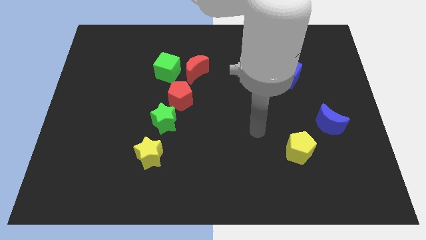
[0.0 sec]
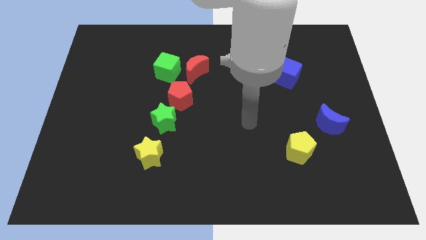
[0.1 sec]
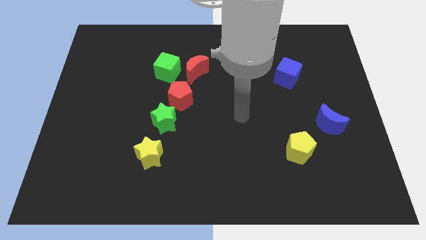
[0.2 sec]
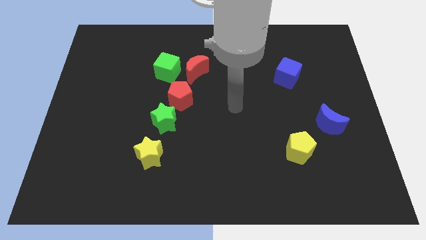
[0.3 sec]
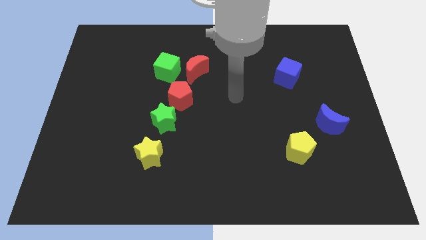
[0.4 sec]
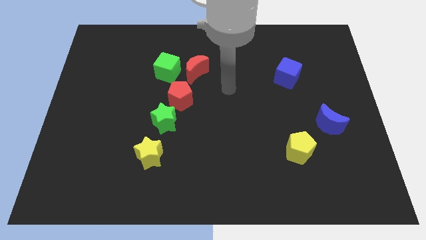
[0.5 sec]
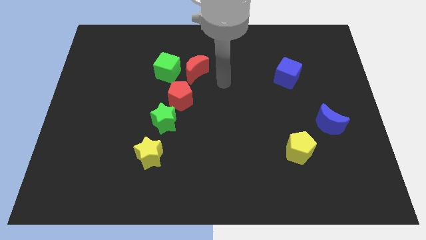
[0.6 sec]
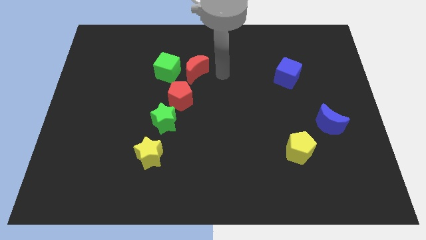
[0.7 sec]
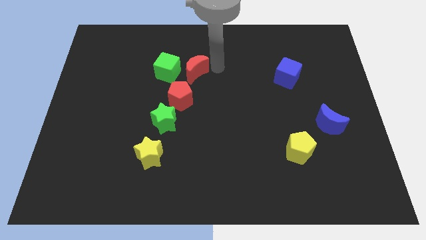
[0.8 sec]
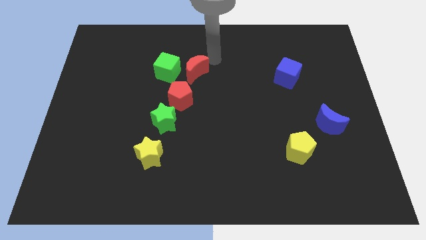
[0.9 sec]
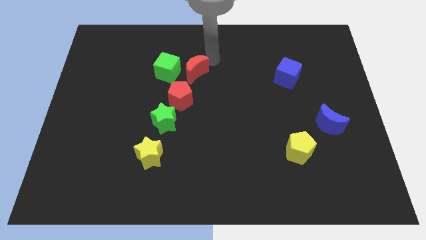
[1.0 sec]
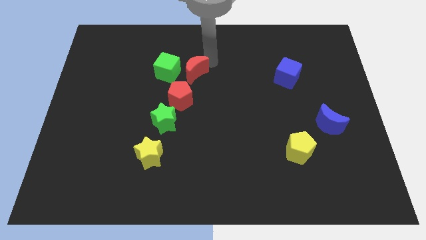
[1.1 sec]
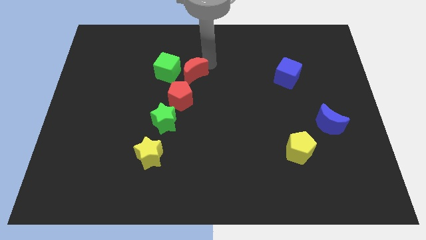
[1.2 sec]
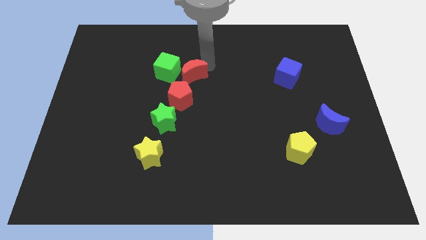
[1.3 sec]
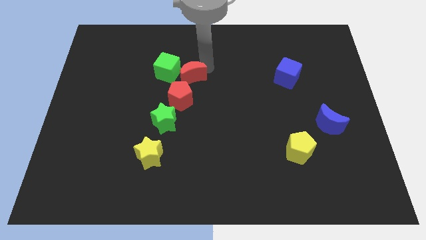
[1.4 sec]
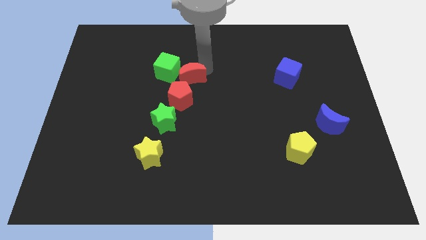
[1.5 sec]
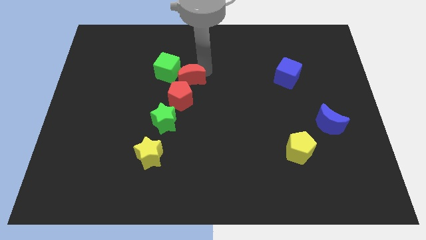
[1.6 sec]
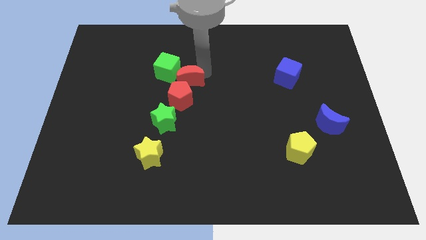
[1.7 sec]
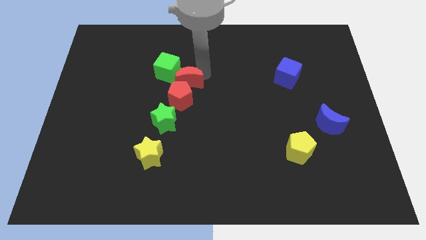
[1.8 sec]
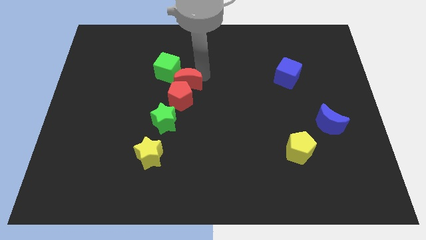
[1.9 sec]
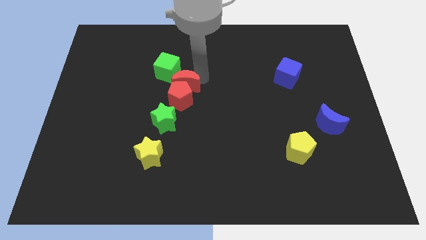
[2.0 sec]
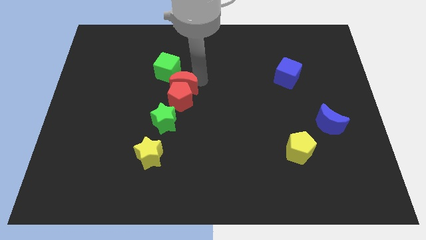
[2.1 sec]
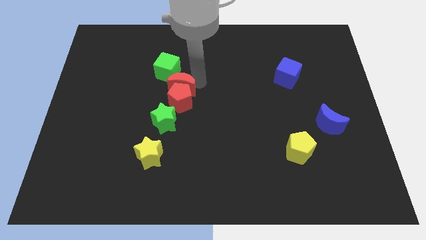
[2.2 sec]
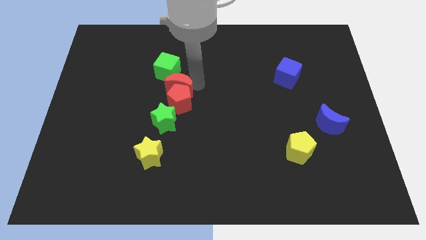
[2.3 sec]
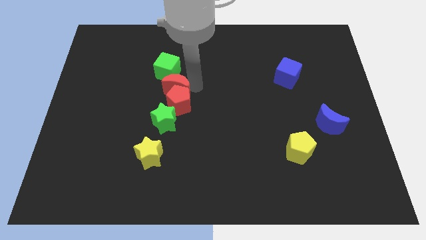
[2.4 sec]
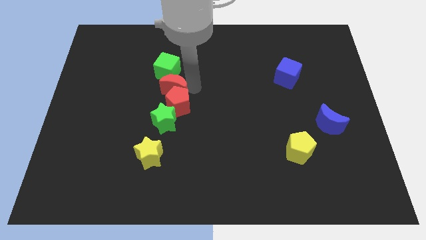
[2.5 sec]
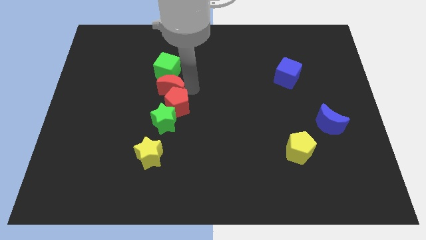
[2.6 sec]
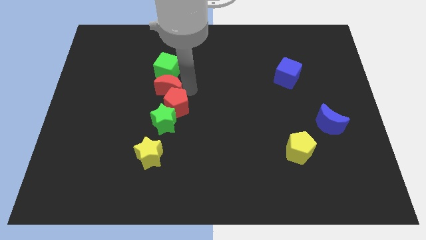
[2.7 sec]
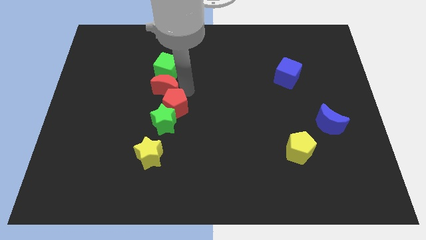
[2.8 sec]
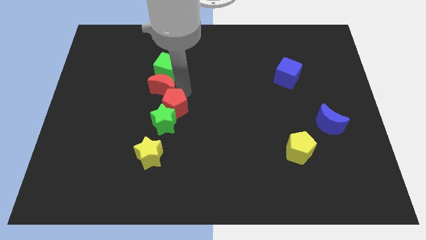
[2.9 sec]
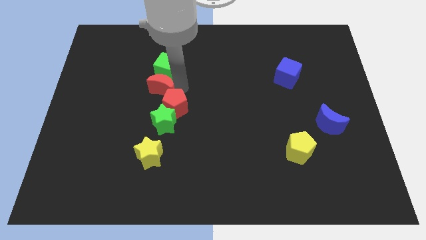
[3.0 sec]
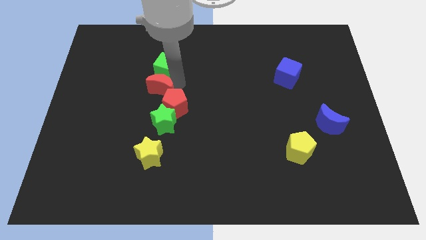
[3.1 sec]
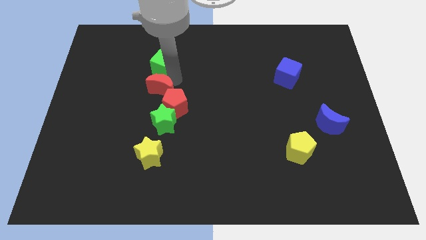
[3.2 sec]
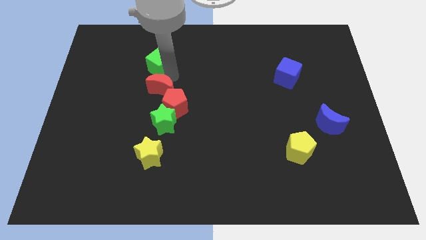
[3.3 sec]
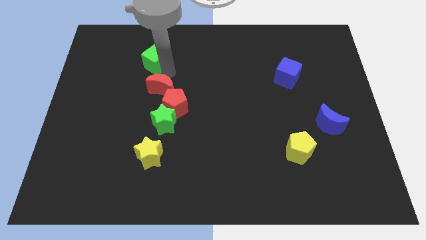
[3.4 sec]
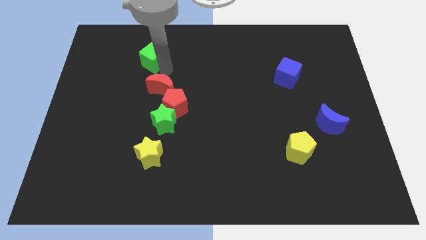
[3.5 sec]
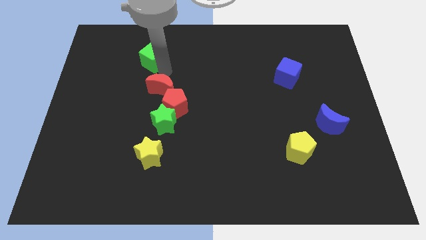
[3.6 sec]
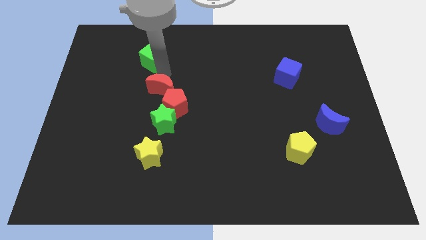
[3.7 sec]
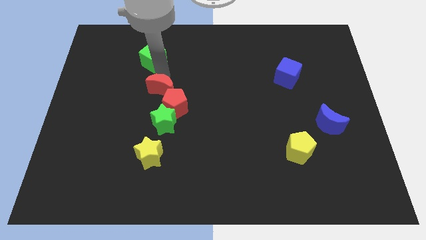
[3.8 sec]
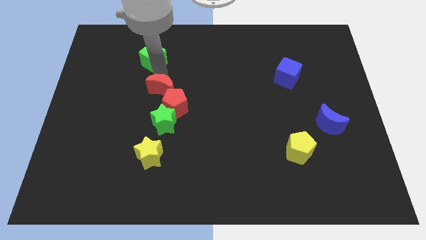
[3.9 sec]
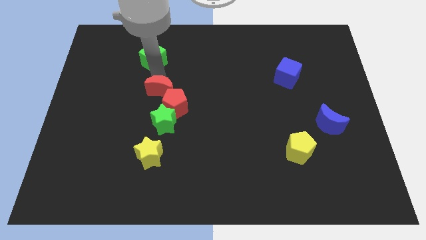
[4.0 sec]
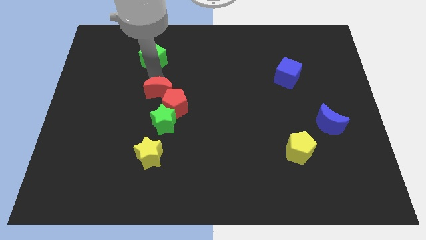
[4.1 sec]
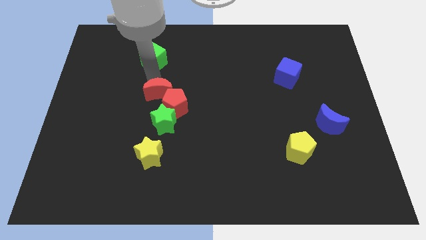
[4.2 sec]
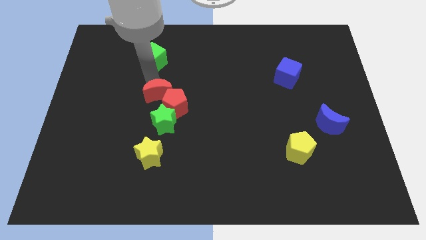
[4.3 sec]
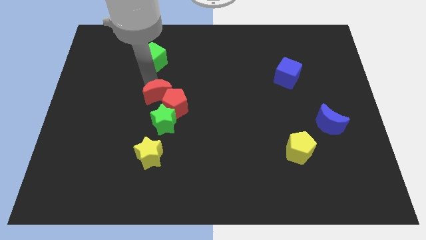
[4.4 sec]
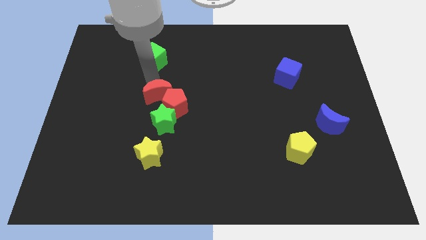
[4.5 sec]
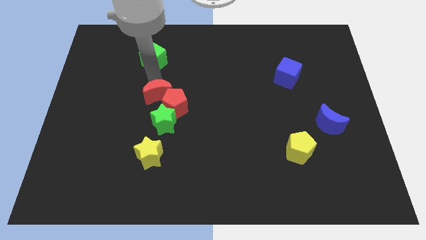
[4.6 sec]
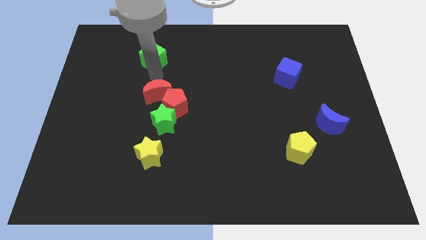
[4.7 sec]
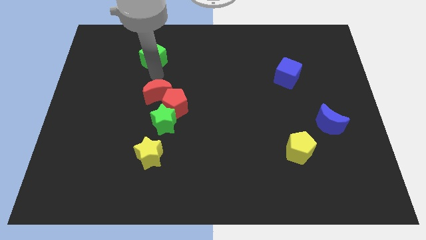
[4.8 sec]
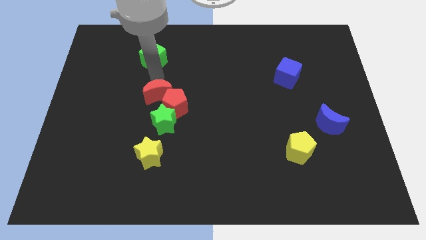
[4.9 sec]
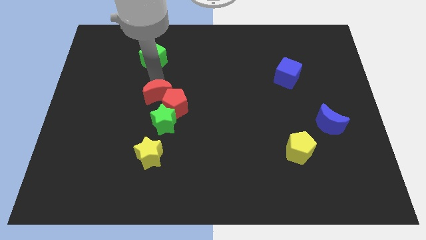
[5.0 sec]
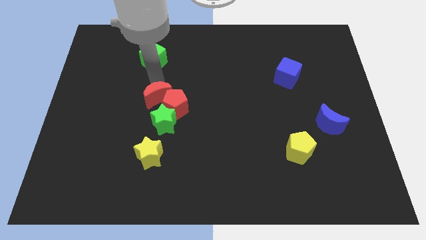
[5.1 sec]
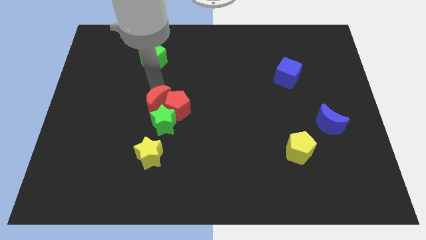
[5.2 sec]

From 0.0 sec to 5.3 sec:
slide the red moon to the bottom left side of the red pentagon

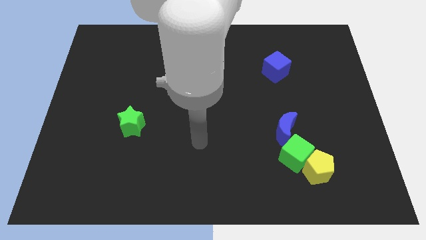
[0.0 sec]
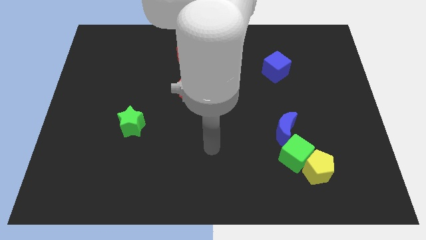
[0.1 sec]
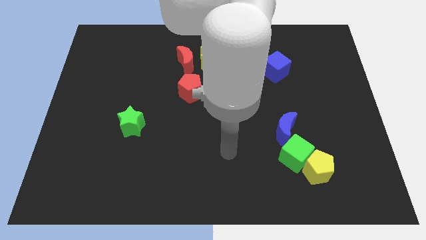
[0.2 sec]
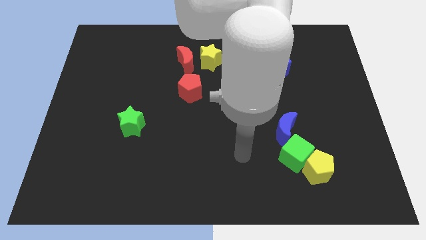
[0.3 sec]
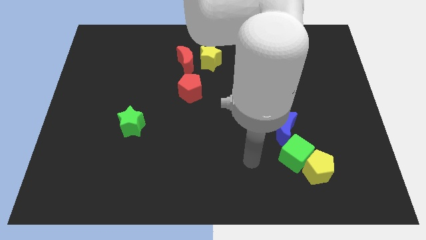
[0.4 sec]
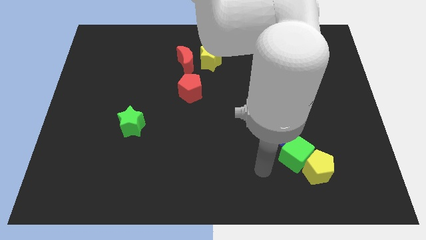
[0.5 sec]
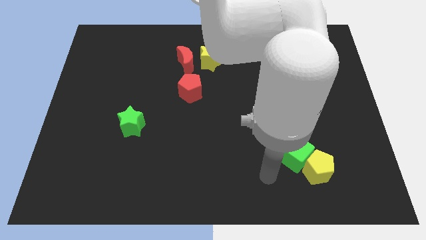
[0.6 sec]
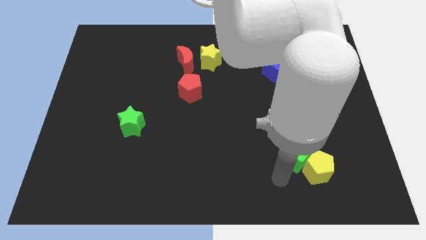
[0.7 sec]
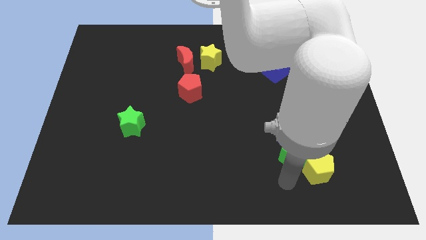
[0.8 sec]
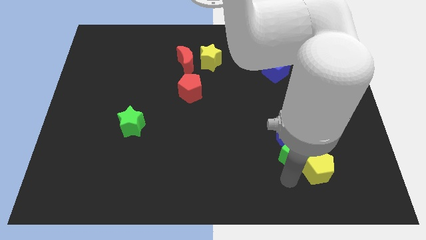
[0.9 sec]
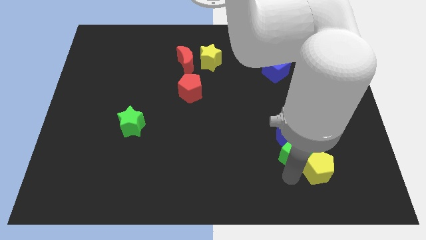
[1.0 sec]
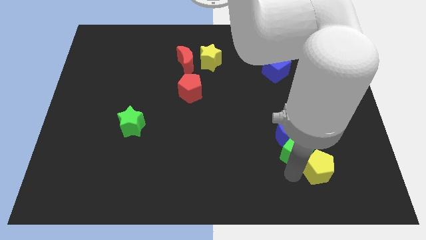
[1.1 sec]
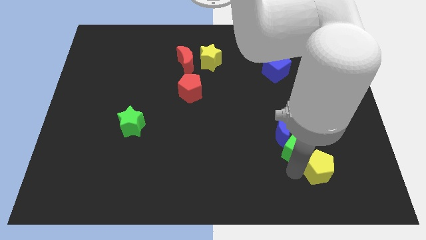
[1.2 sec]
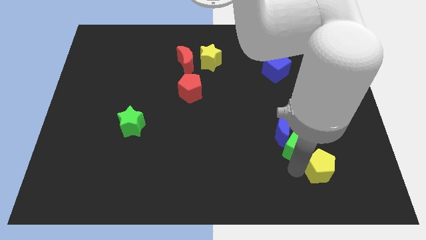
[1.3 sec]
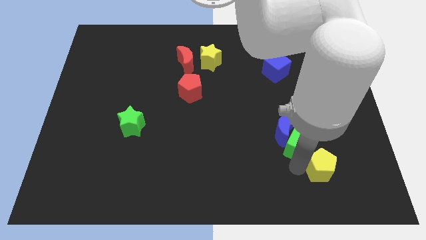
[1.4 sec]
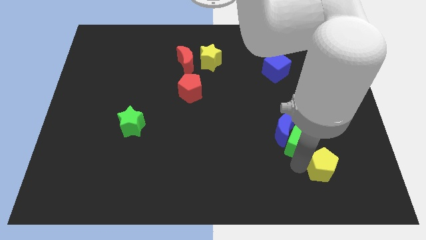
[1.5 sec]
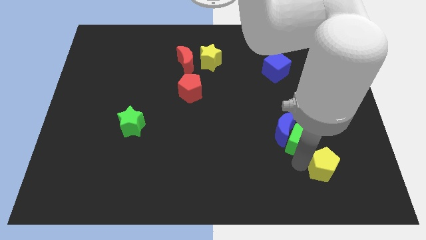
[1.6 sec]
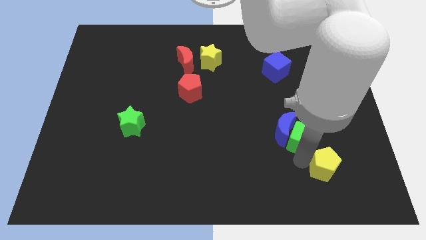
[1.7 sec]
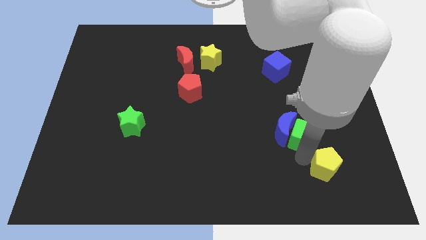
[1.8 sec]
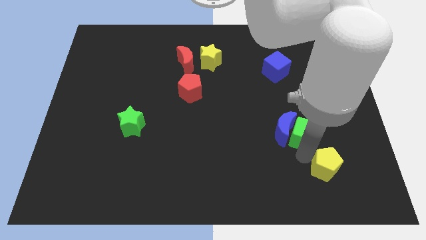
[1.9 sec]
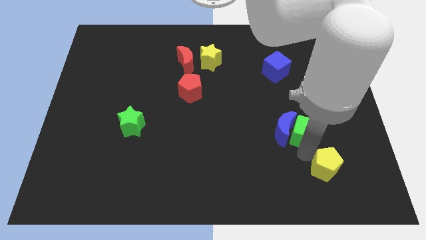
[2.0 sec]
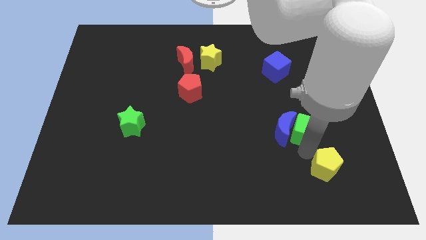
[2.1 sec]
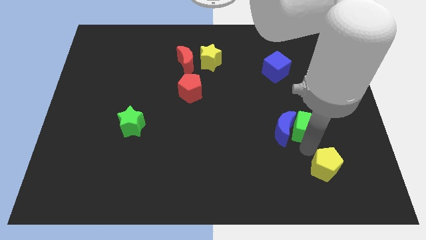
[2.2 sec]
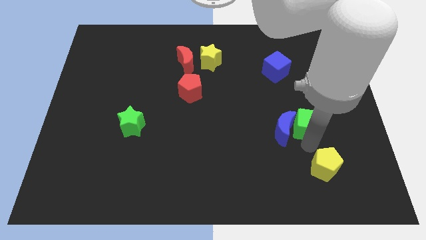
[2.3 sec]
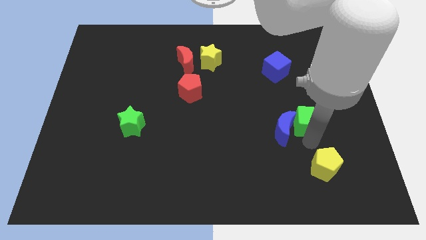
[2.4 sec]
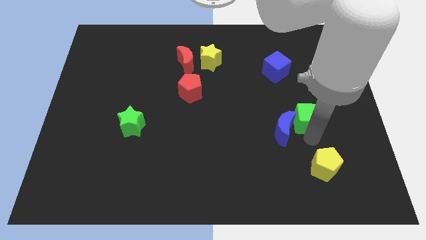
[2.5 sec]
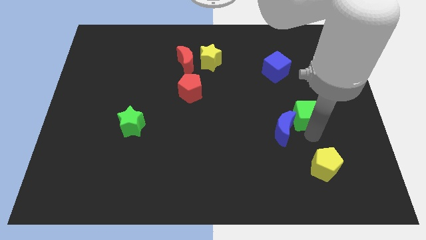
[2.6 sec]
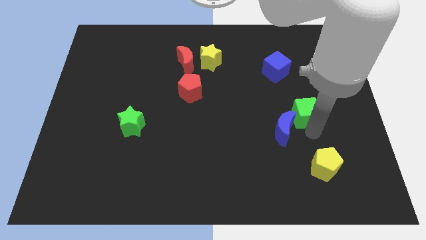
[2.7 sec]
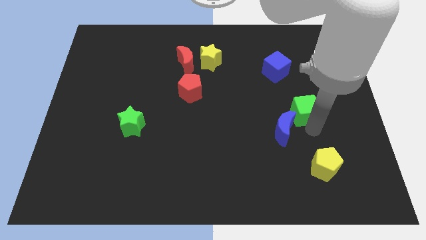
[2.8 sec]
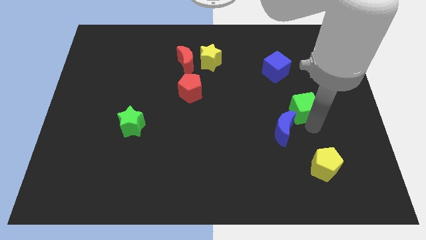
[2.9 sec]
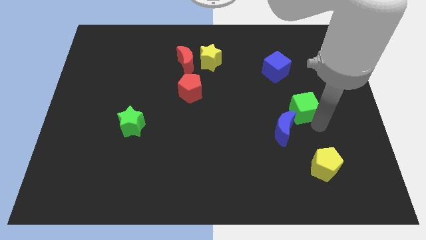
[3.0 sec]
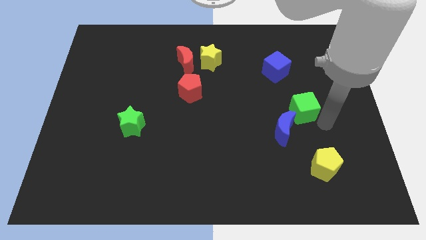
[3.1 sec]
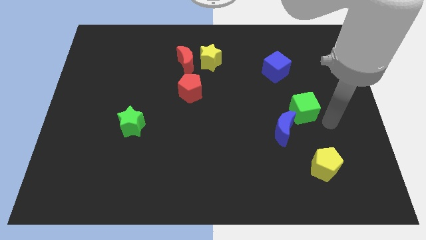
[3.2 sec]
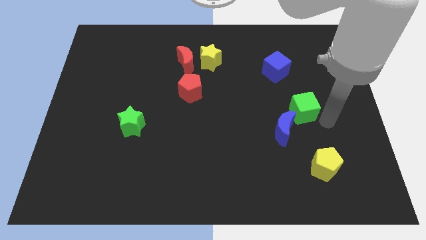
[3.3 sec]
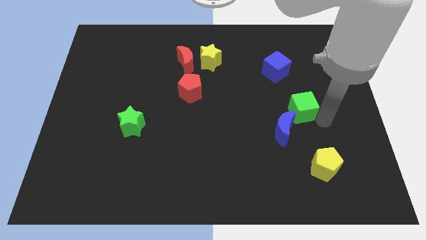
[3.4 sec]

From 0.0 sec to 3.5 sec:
push the green cube to the bottom of the blue cube
